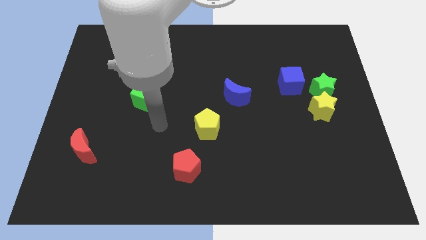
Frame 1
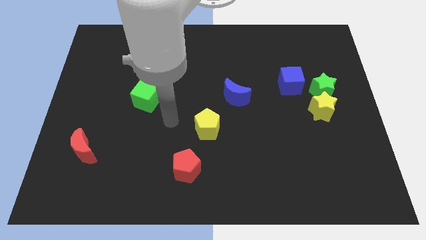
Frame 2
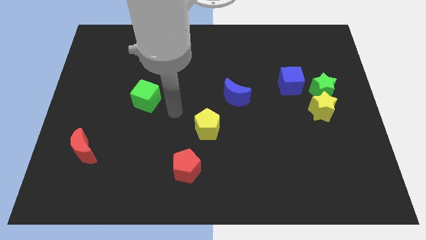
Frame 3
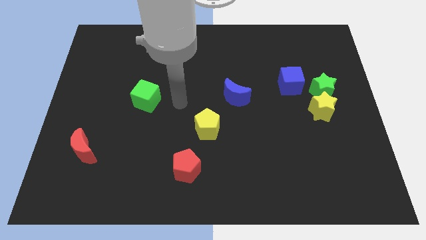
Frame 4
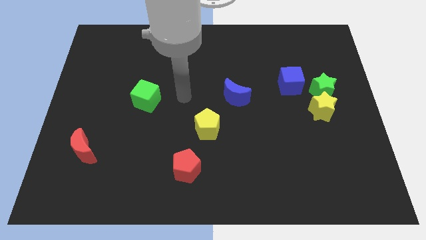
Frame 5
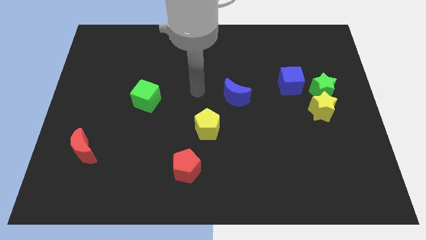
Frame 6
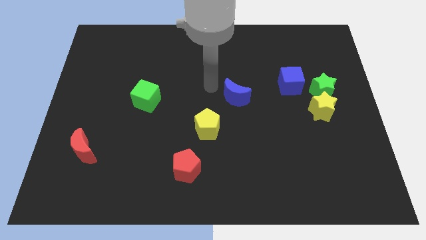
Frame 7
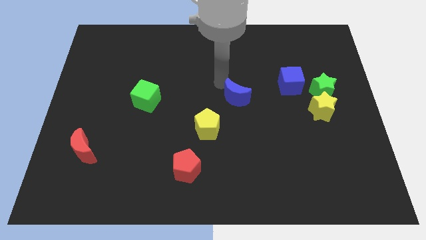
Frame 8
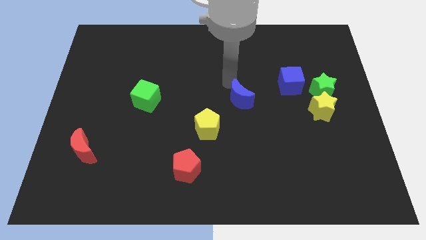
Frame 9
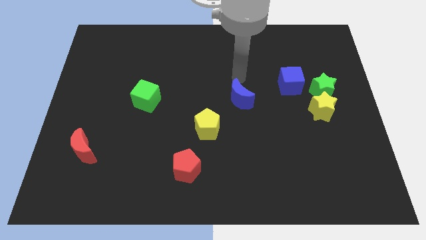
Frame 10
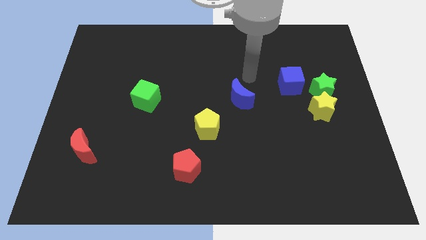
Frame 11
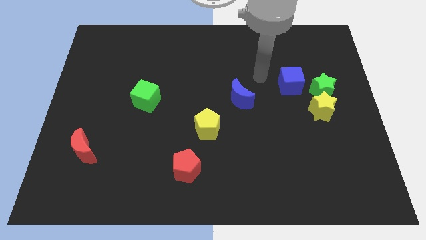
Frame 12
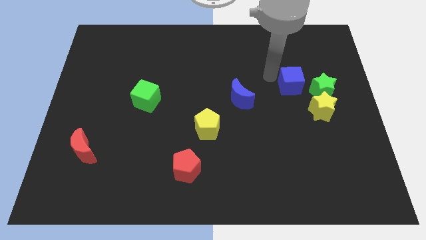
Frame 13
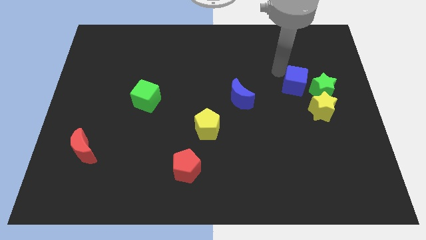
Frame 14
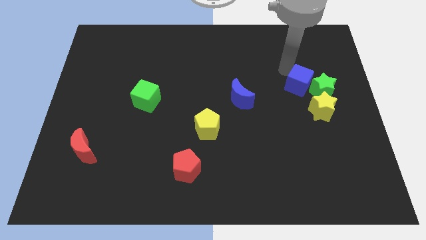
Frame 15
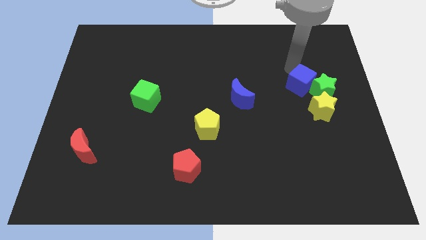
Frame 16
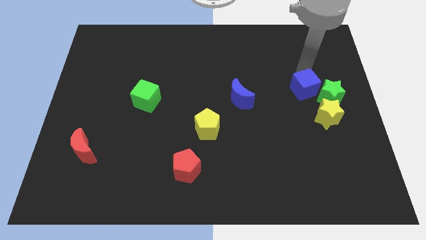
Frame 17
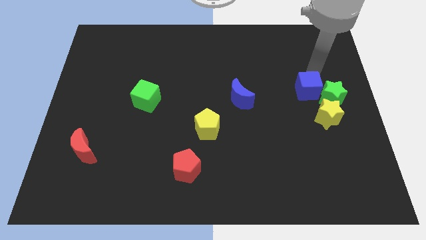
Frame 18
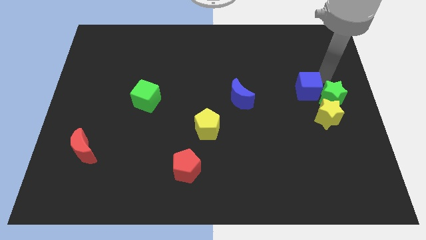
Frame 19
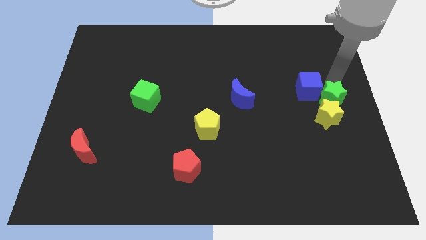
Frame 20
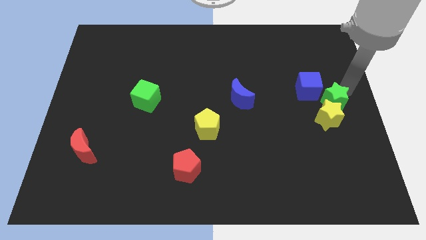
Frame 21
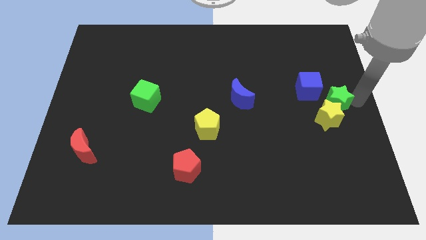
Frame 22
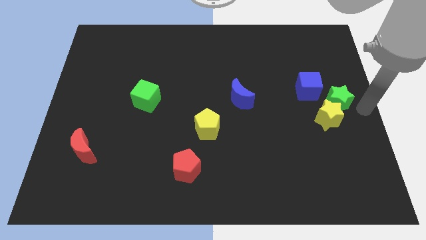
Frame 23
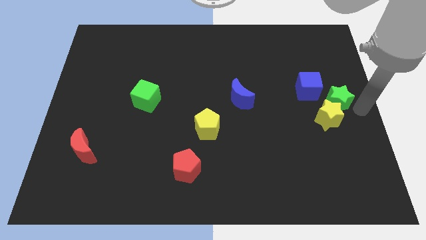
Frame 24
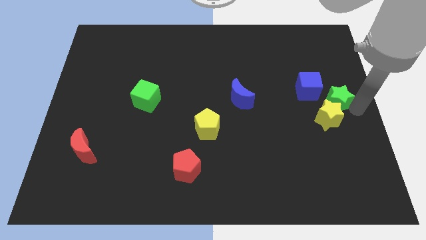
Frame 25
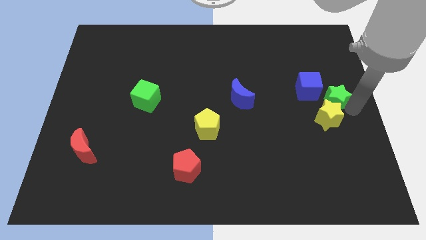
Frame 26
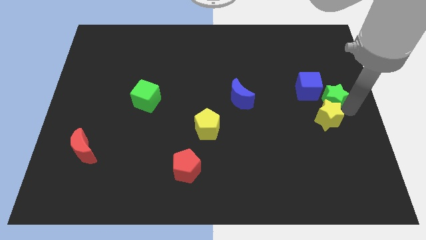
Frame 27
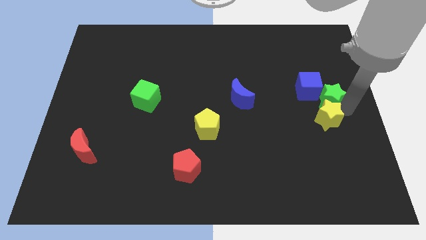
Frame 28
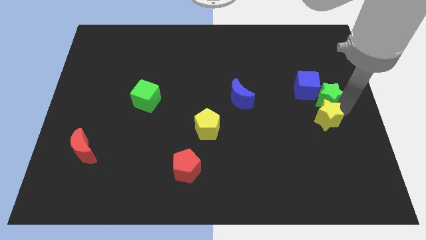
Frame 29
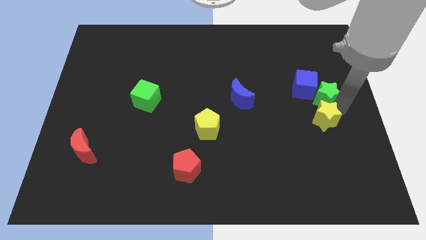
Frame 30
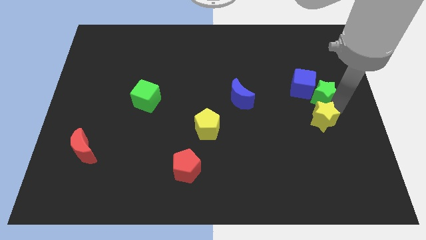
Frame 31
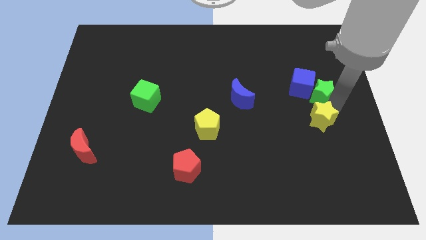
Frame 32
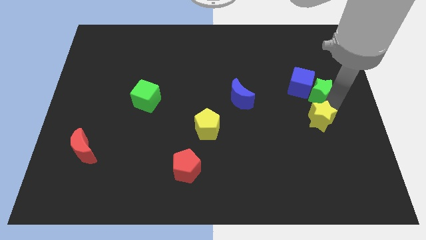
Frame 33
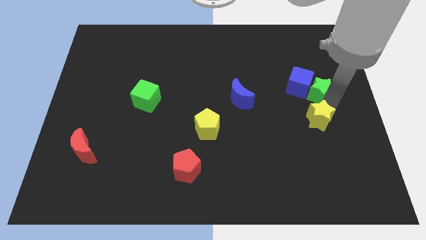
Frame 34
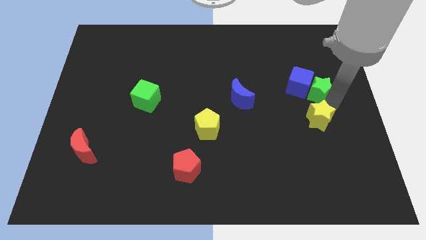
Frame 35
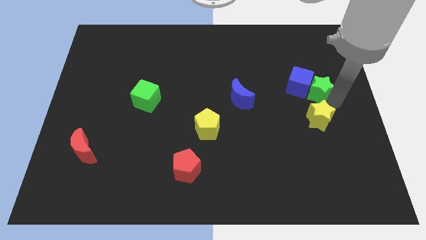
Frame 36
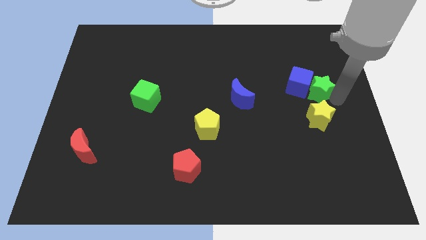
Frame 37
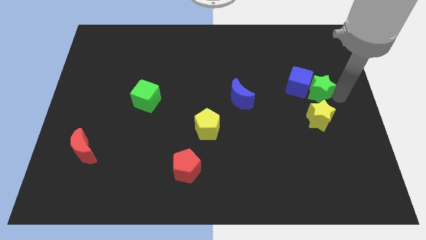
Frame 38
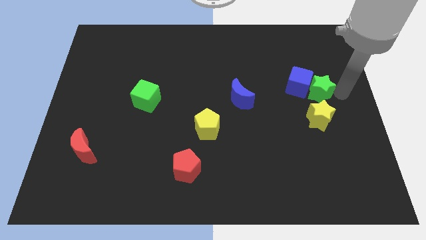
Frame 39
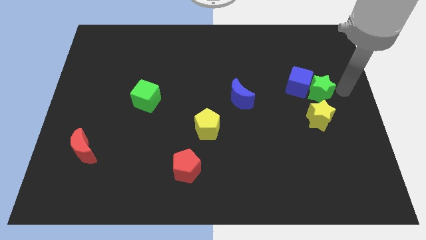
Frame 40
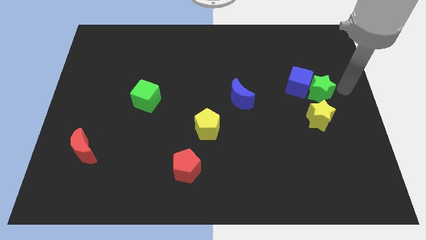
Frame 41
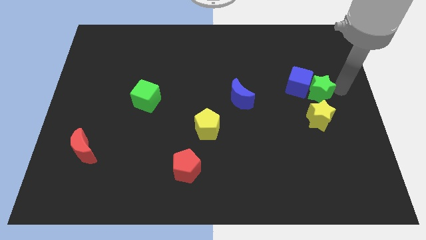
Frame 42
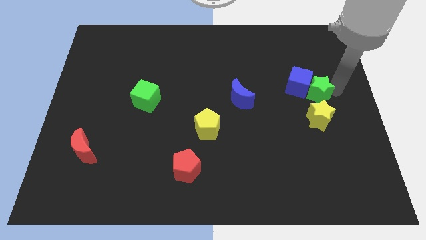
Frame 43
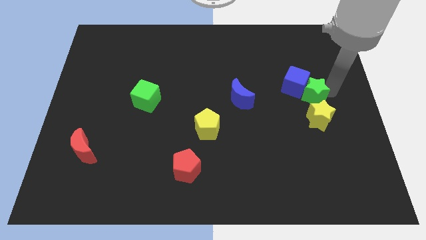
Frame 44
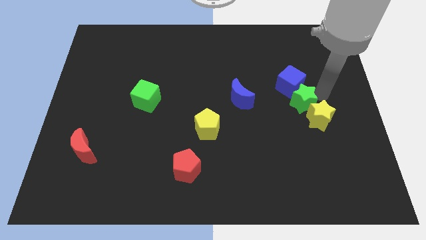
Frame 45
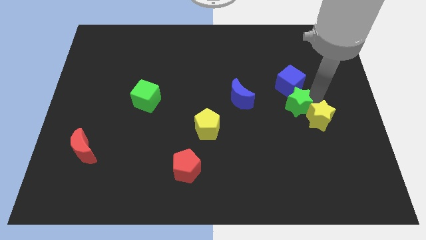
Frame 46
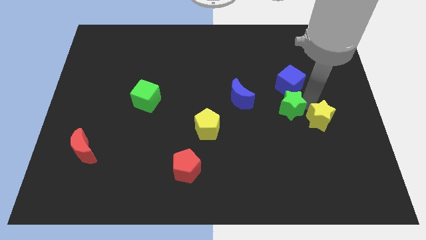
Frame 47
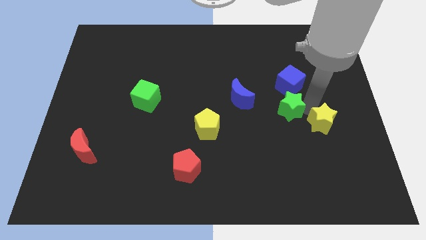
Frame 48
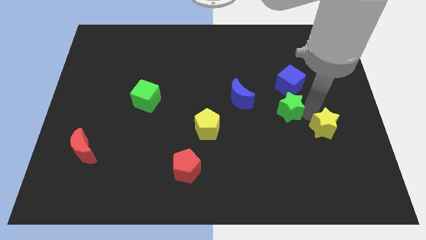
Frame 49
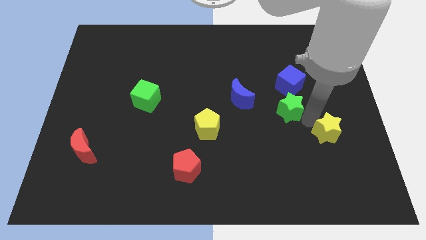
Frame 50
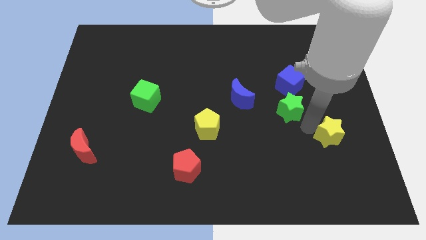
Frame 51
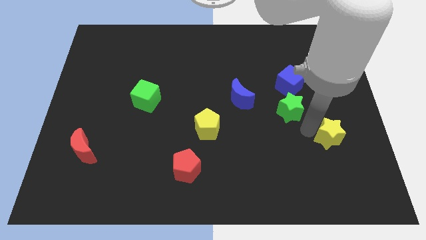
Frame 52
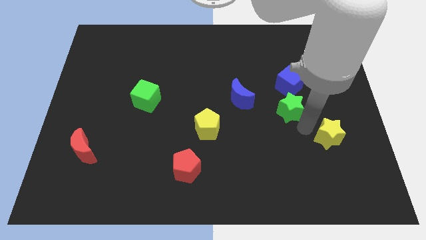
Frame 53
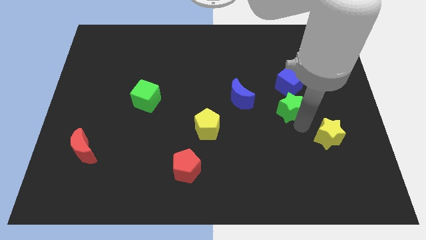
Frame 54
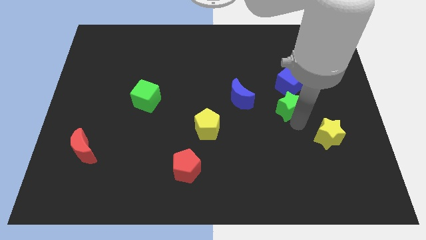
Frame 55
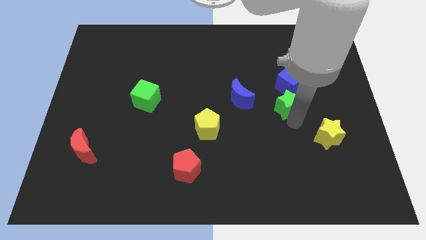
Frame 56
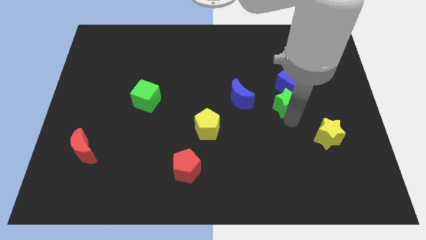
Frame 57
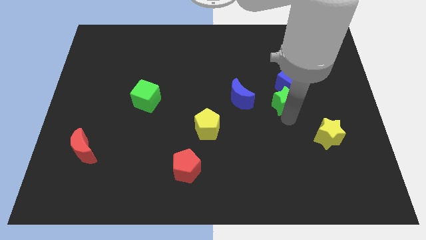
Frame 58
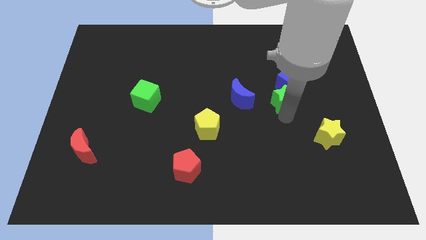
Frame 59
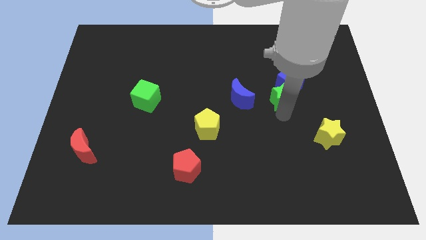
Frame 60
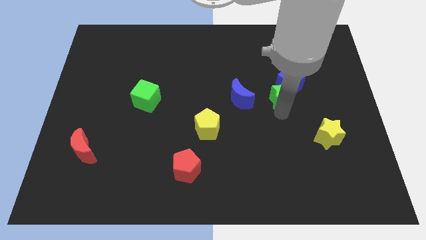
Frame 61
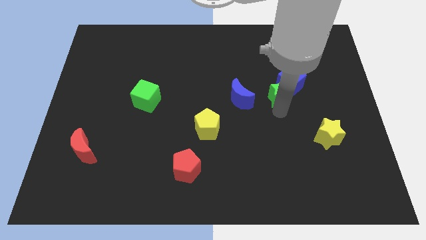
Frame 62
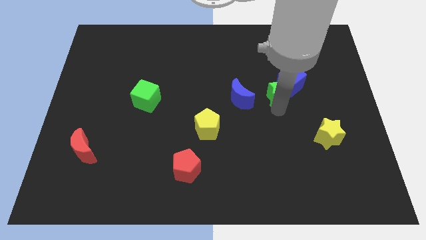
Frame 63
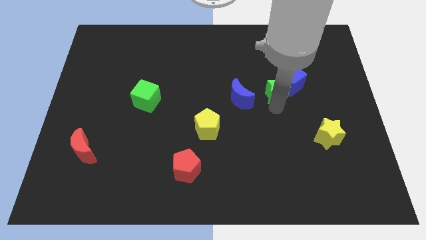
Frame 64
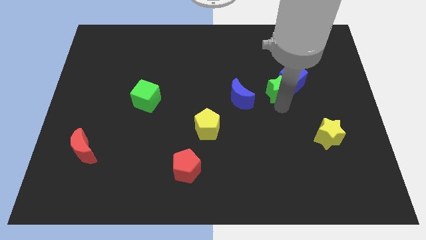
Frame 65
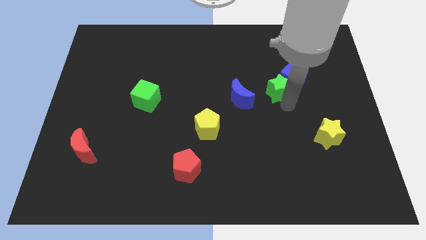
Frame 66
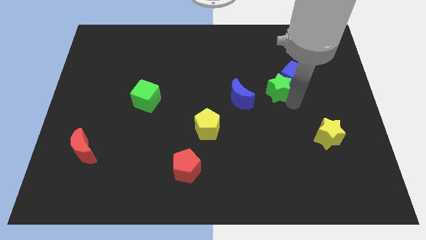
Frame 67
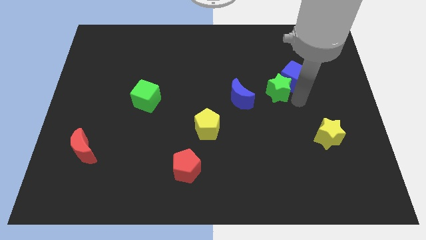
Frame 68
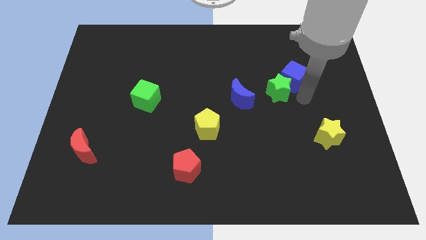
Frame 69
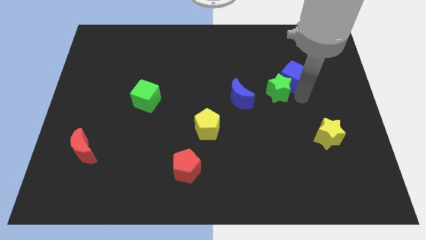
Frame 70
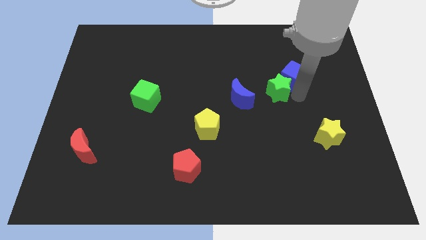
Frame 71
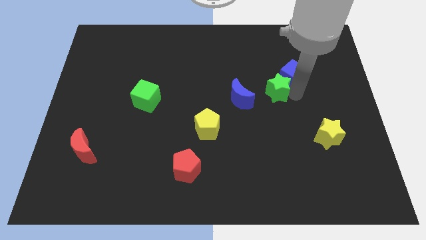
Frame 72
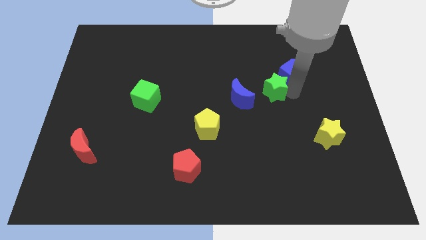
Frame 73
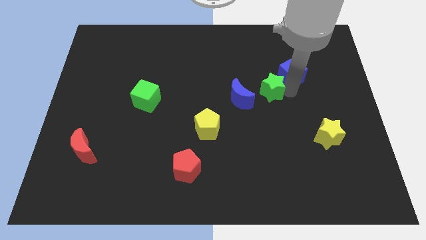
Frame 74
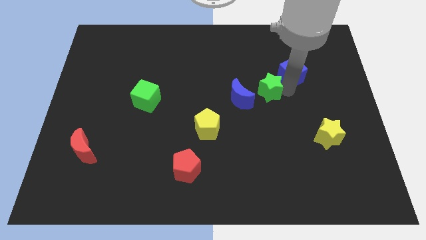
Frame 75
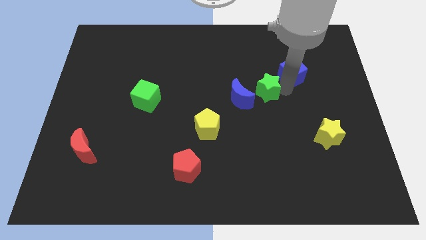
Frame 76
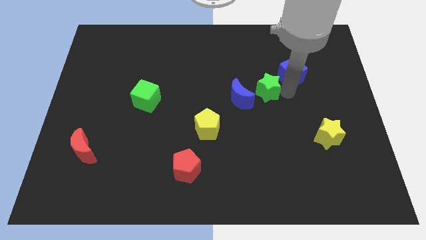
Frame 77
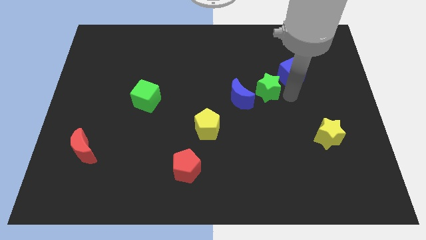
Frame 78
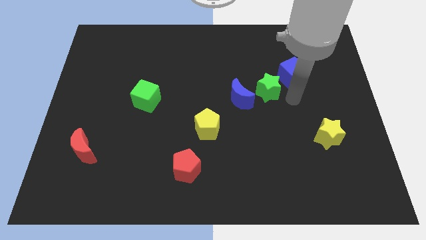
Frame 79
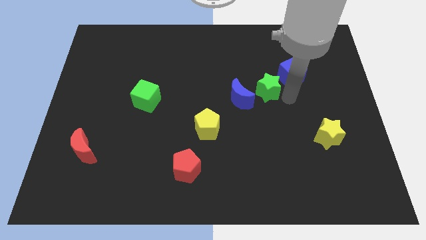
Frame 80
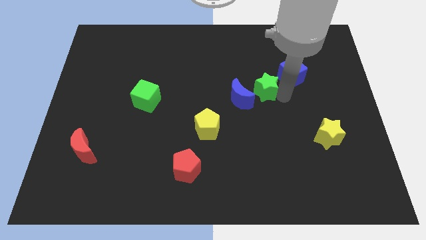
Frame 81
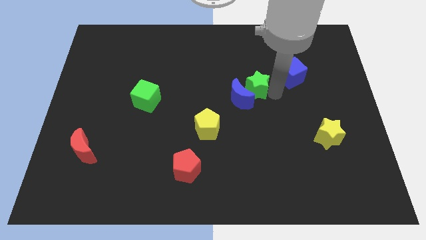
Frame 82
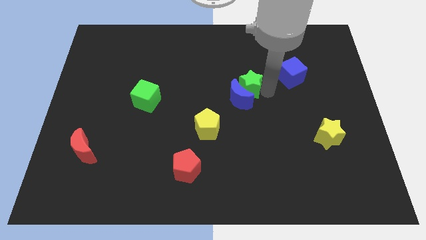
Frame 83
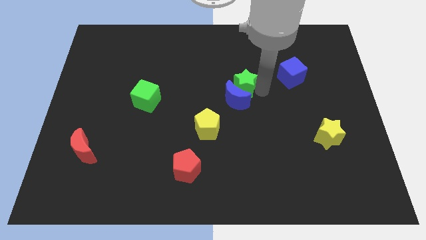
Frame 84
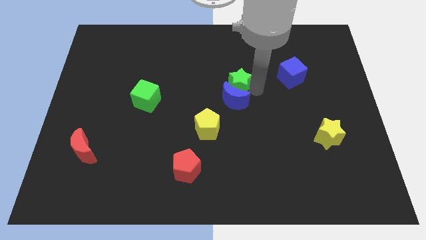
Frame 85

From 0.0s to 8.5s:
slide the green star to the top left of the blue moon
